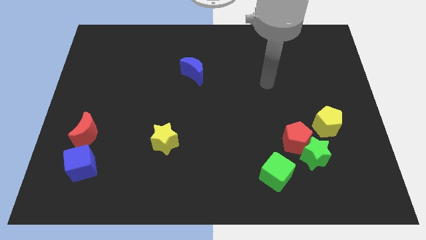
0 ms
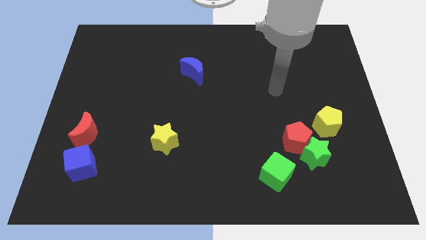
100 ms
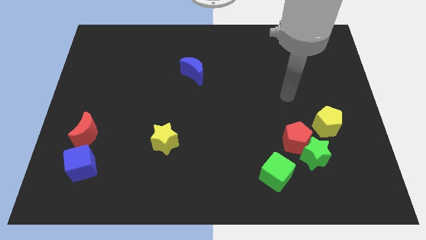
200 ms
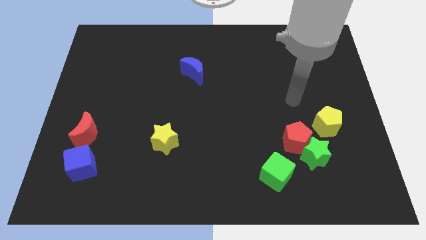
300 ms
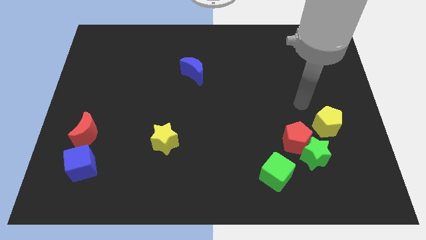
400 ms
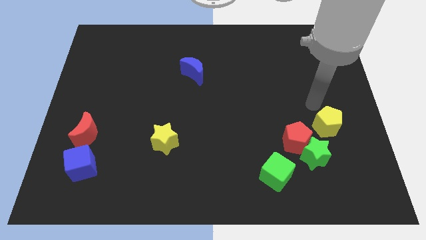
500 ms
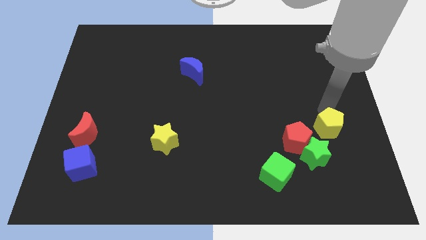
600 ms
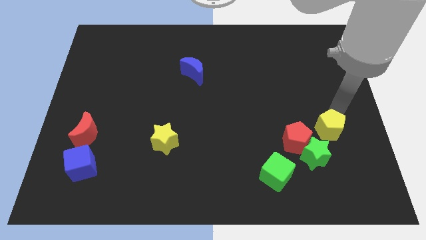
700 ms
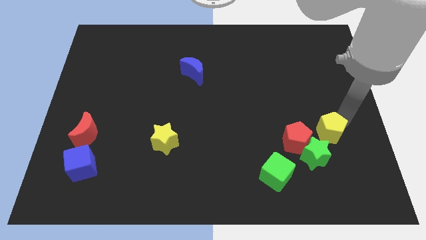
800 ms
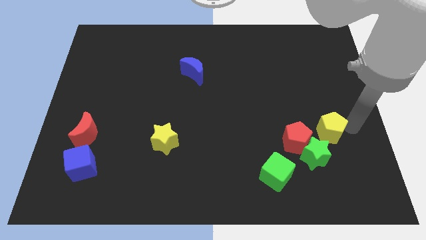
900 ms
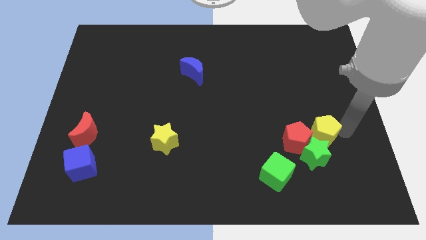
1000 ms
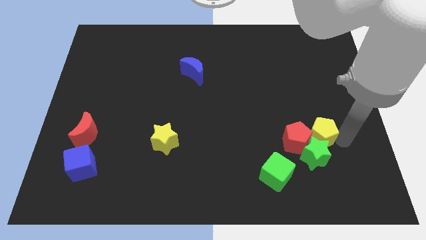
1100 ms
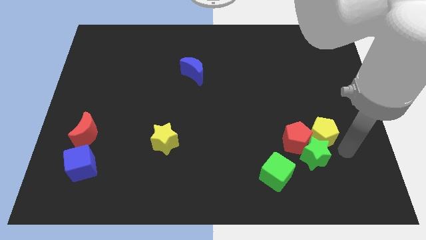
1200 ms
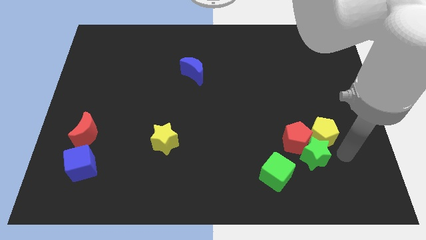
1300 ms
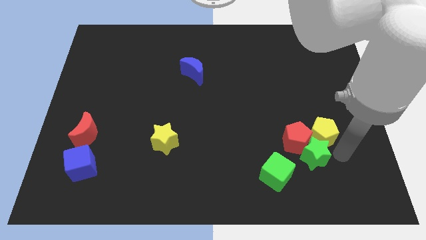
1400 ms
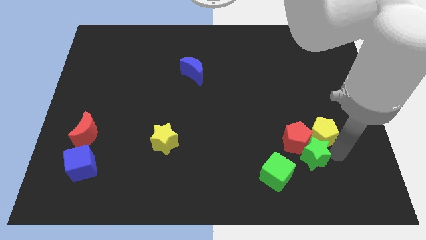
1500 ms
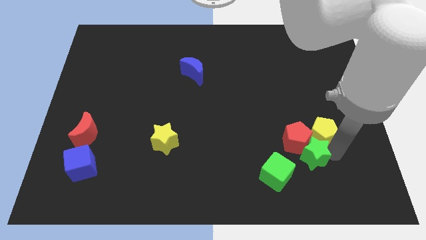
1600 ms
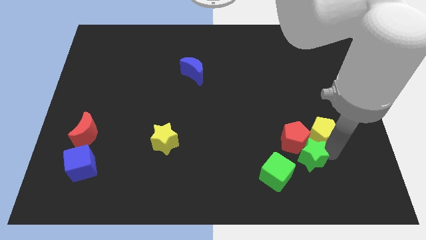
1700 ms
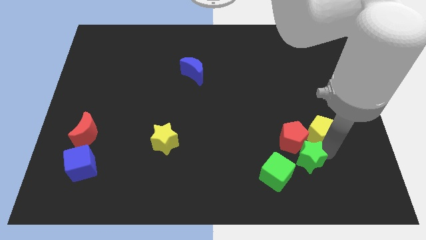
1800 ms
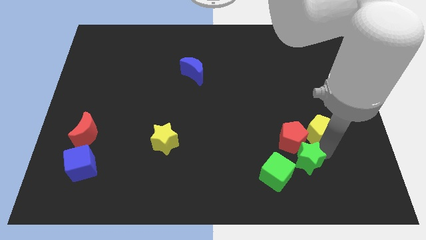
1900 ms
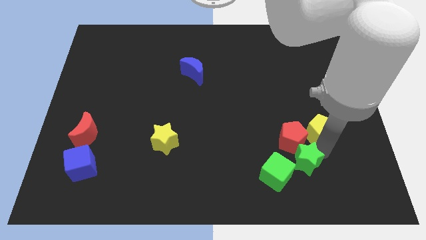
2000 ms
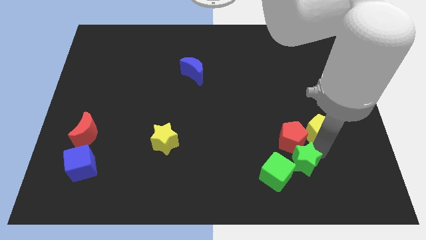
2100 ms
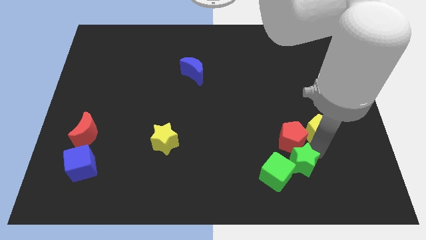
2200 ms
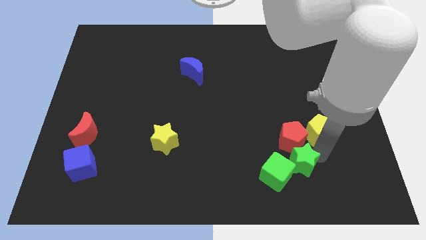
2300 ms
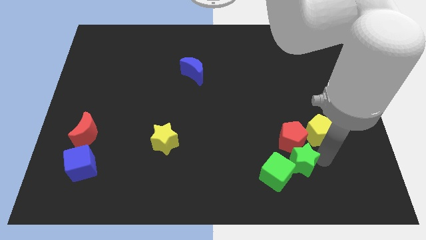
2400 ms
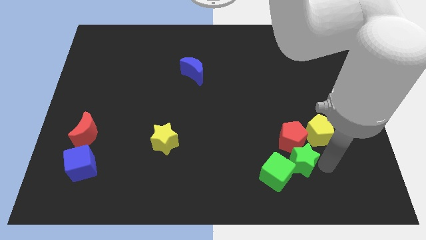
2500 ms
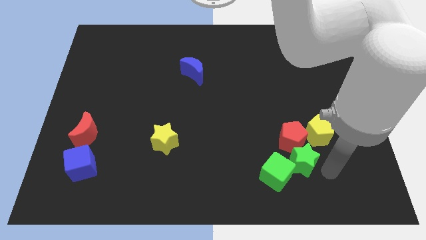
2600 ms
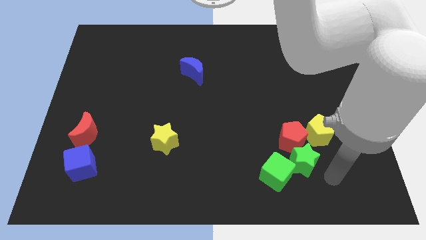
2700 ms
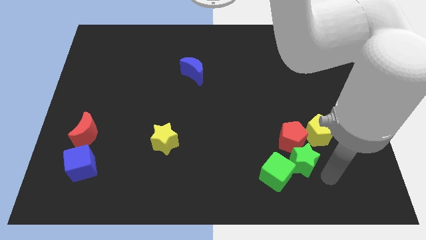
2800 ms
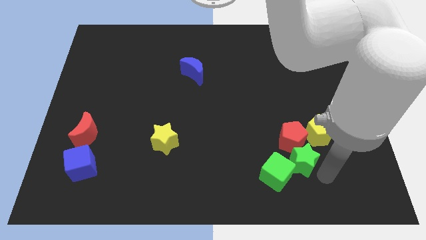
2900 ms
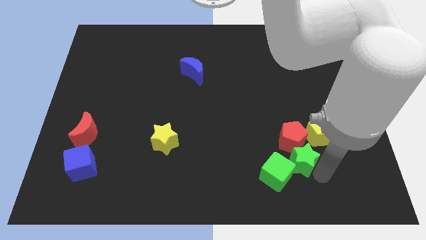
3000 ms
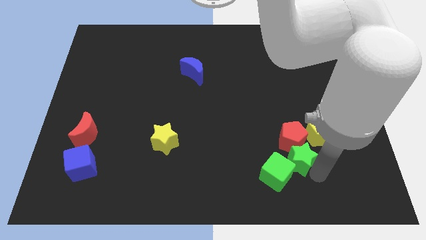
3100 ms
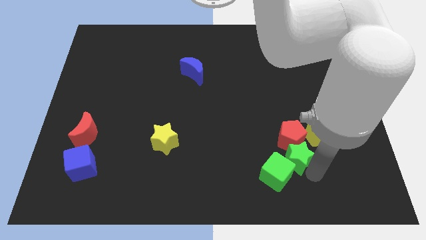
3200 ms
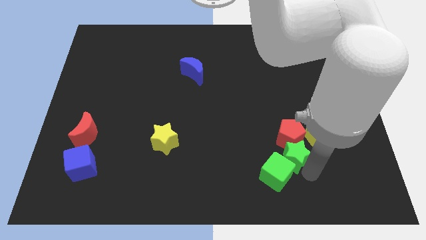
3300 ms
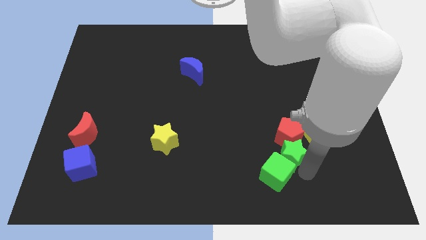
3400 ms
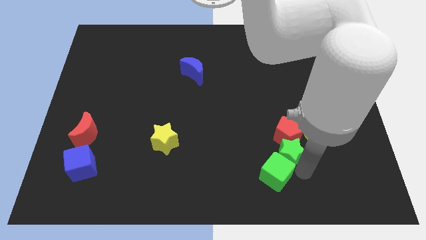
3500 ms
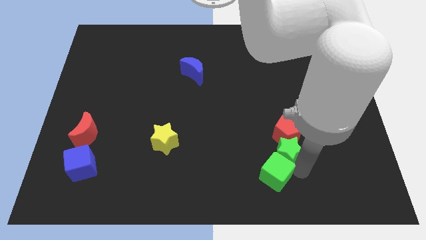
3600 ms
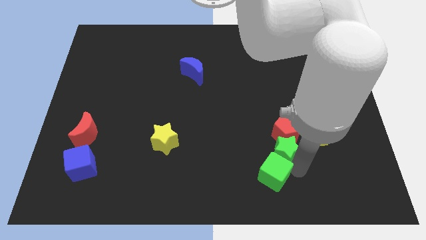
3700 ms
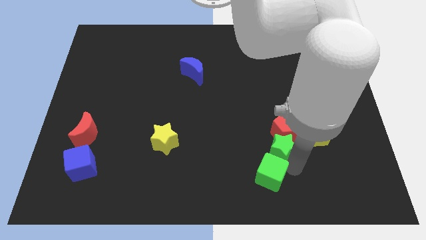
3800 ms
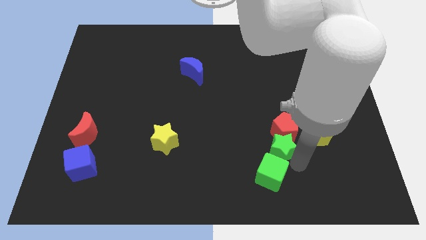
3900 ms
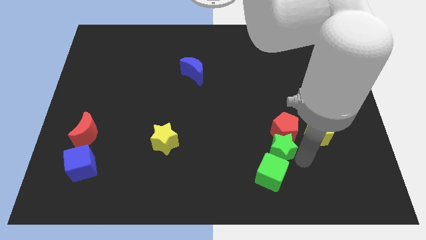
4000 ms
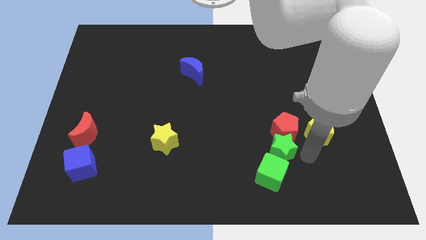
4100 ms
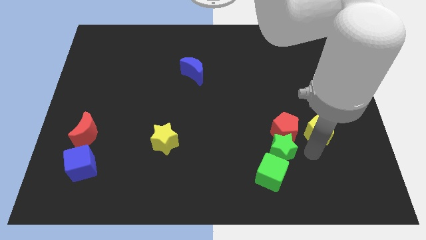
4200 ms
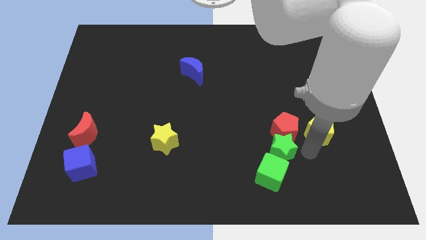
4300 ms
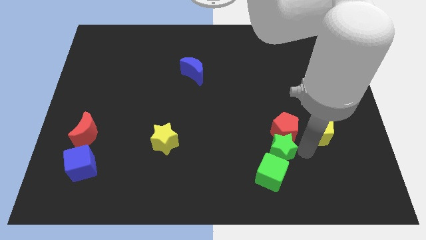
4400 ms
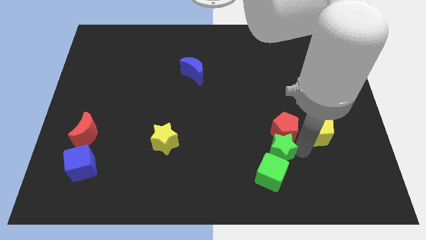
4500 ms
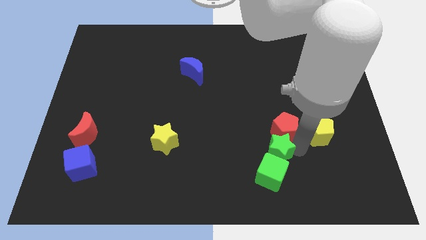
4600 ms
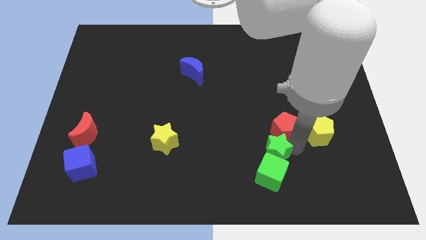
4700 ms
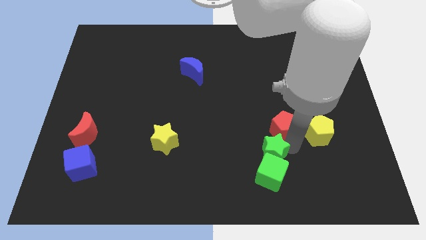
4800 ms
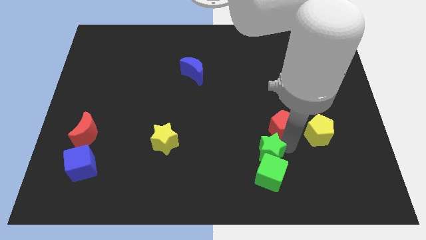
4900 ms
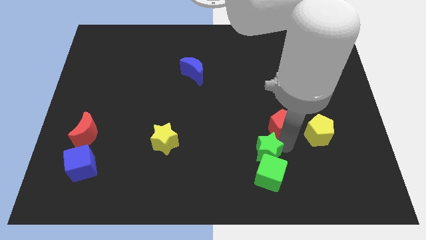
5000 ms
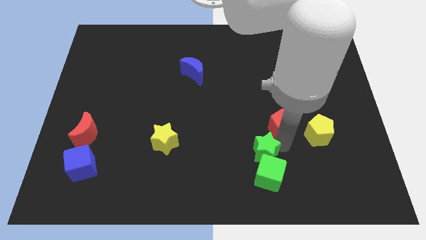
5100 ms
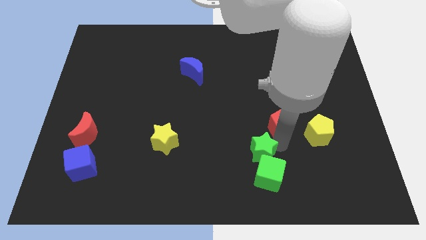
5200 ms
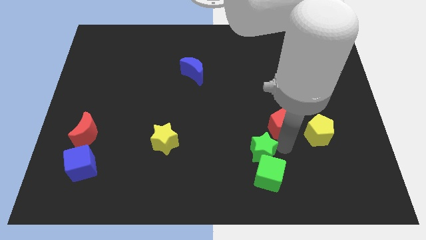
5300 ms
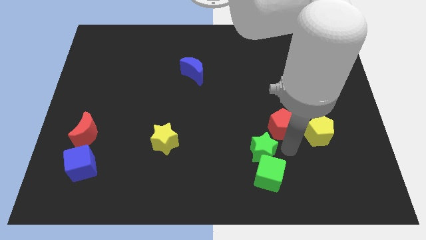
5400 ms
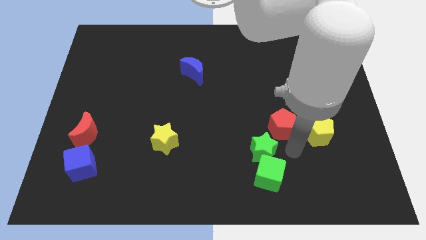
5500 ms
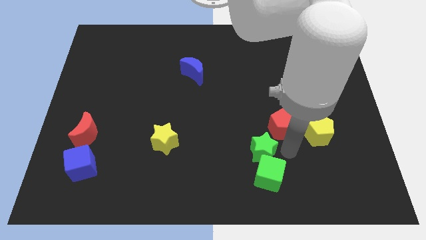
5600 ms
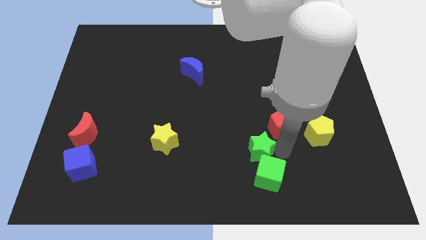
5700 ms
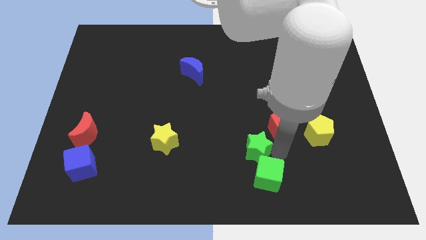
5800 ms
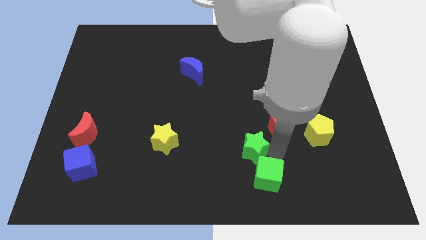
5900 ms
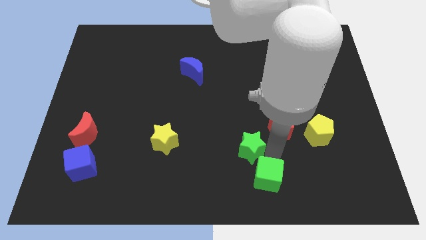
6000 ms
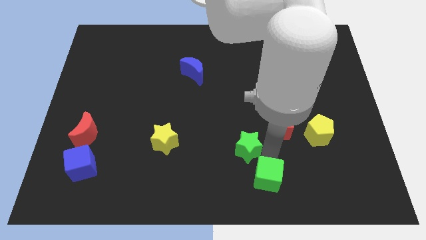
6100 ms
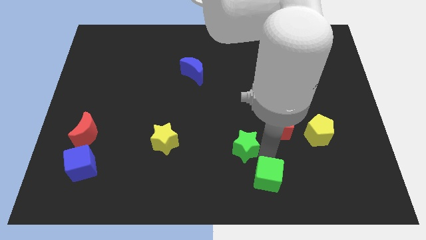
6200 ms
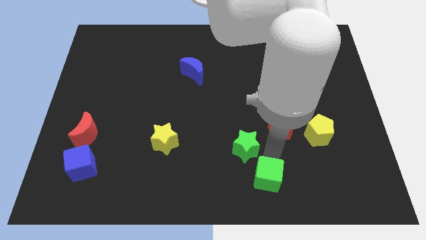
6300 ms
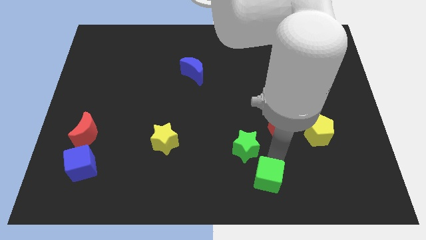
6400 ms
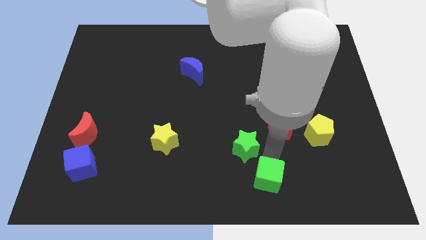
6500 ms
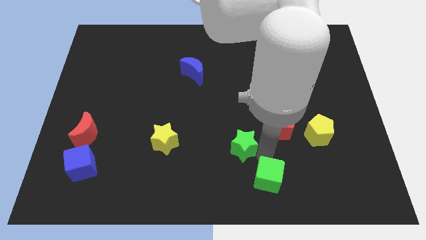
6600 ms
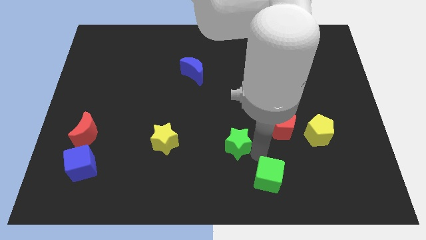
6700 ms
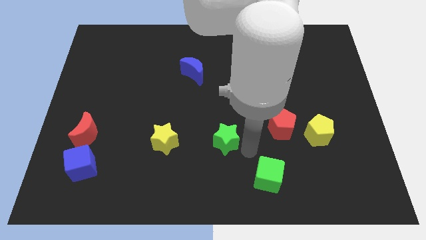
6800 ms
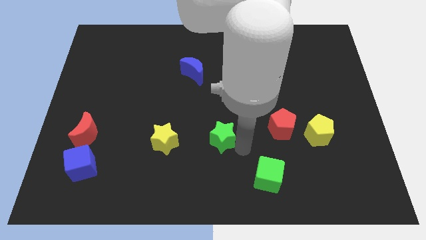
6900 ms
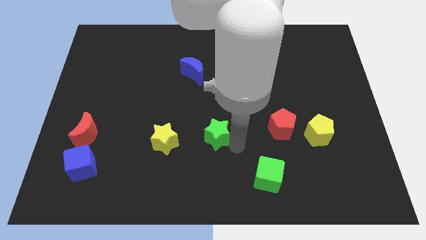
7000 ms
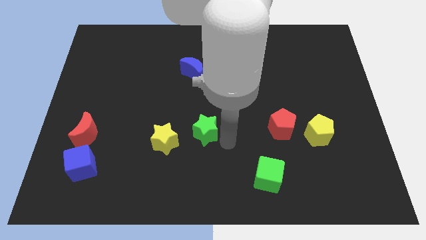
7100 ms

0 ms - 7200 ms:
slide the green star diagonally up and to the right of the yellow star

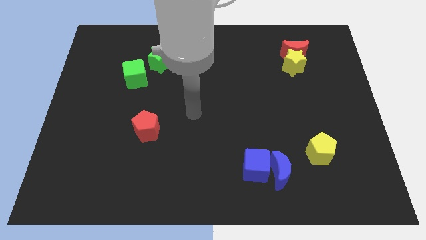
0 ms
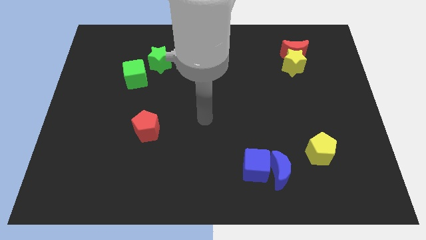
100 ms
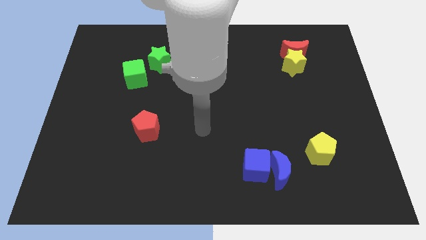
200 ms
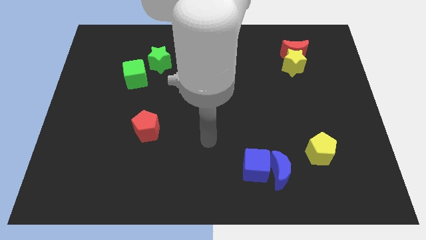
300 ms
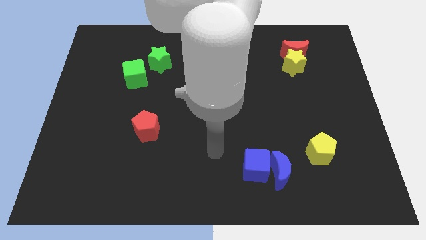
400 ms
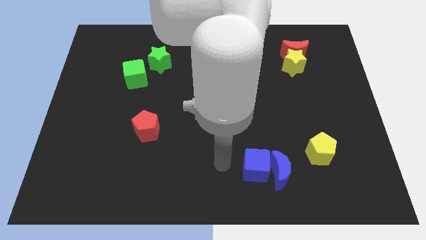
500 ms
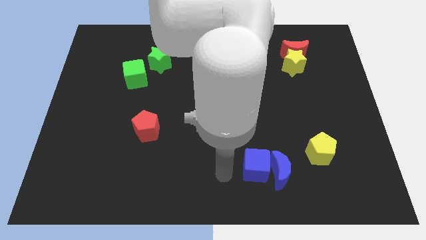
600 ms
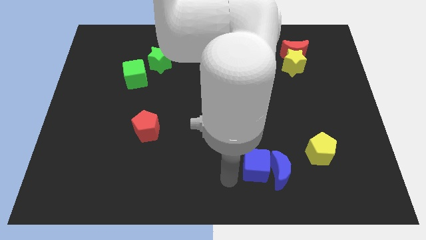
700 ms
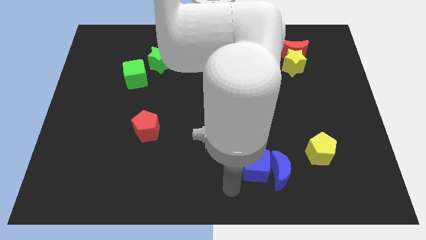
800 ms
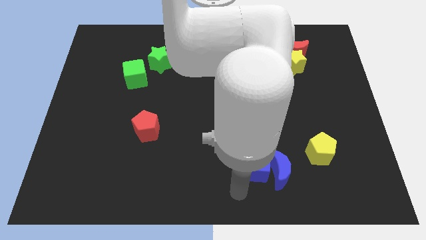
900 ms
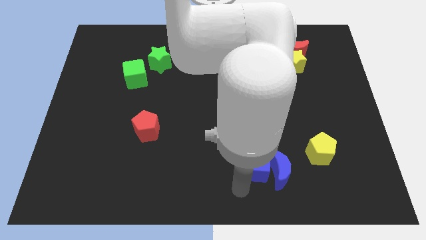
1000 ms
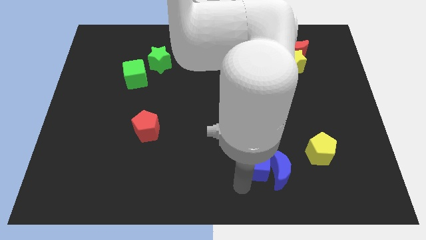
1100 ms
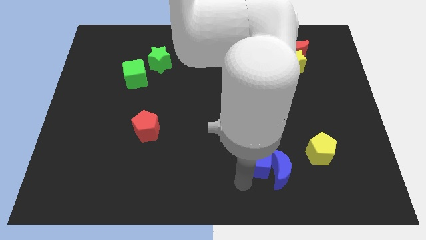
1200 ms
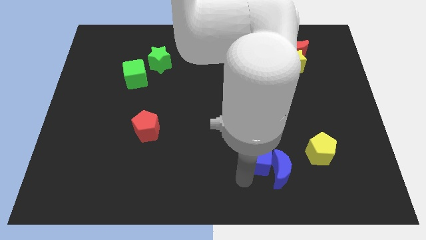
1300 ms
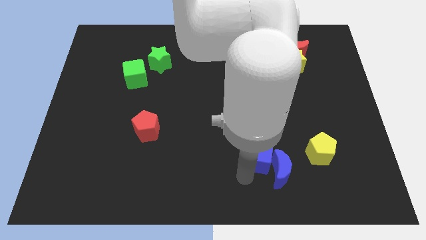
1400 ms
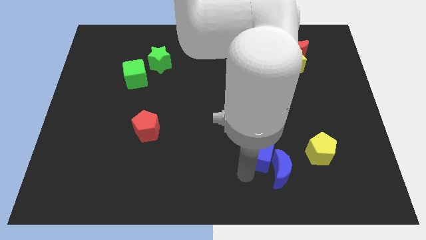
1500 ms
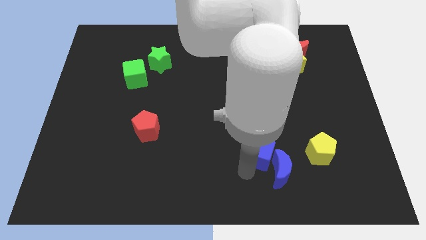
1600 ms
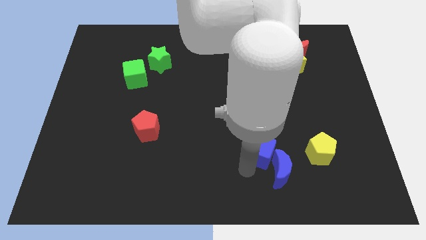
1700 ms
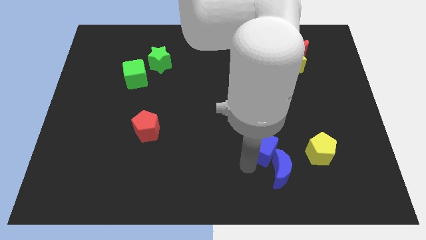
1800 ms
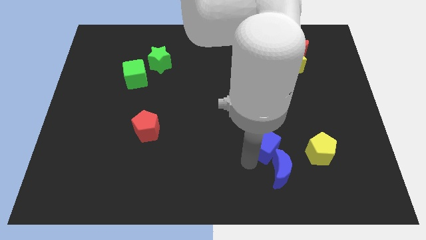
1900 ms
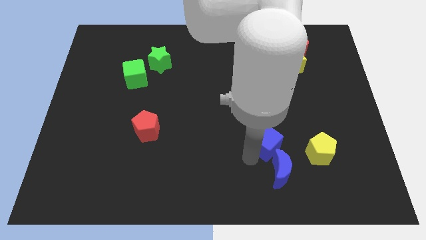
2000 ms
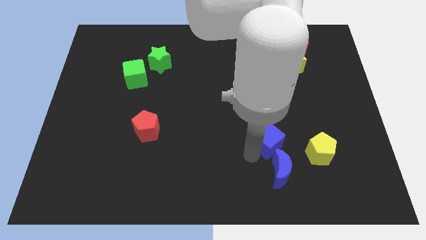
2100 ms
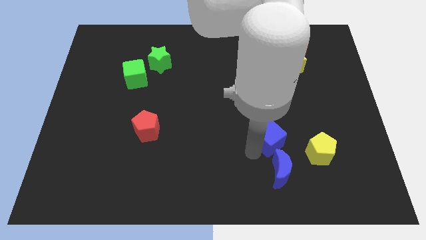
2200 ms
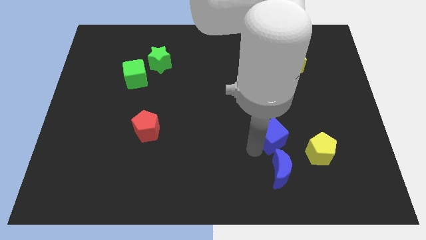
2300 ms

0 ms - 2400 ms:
push the blue cube diagonally up and to the left of the yellow pentagon
